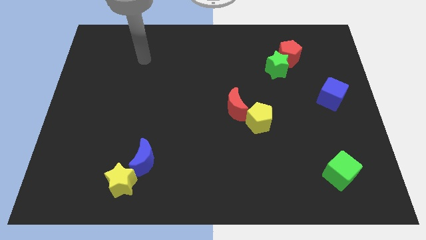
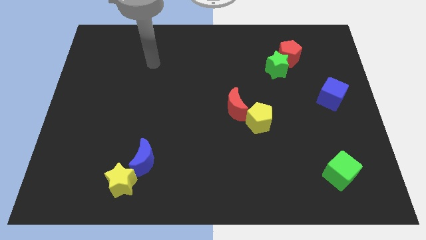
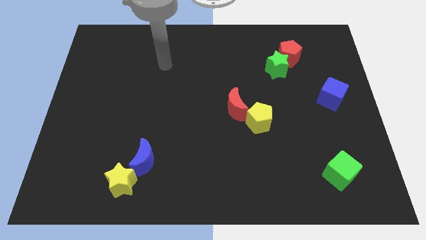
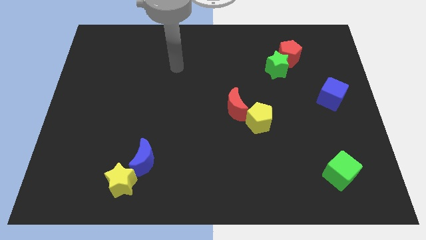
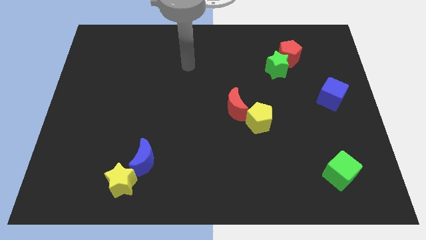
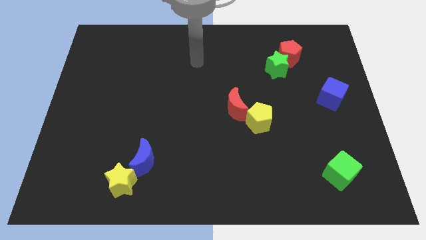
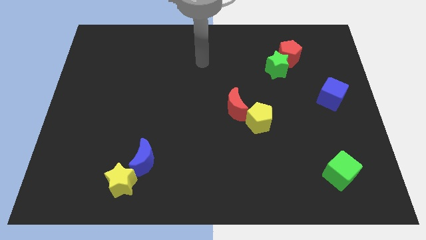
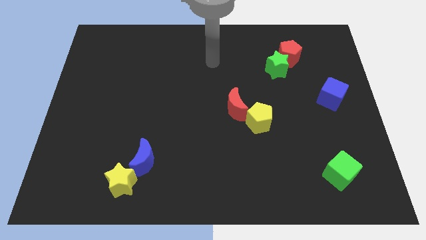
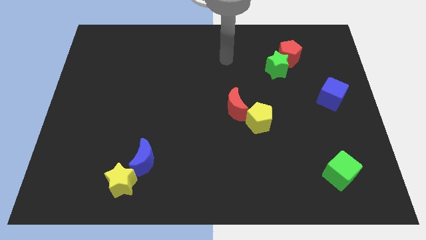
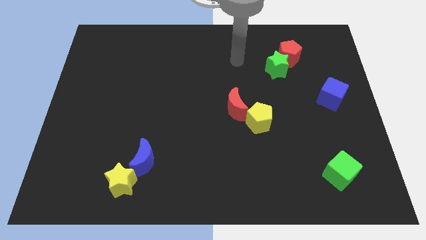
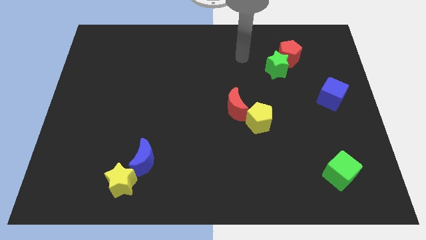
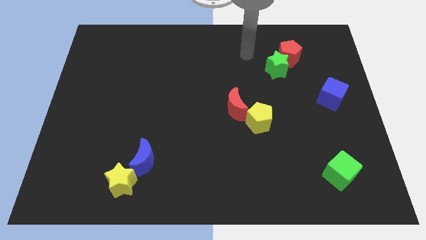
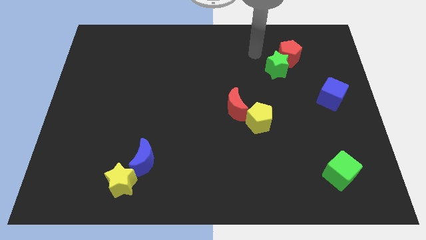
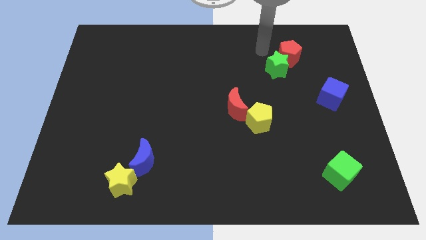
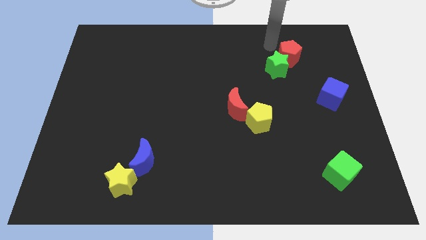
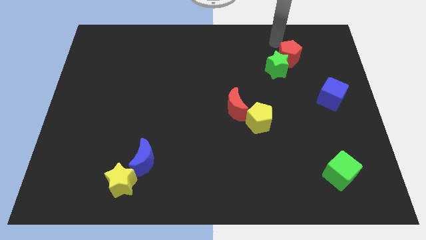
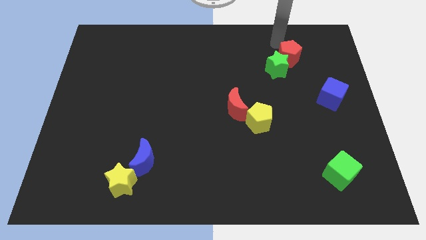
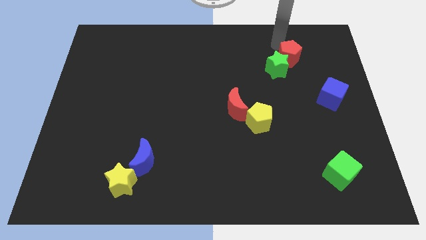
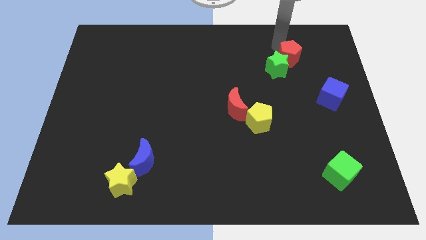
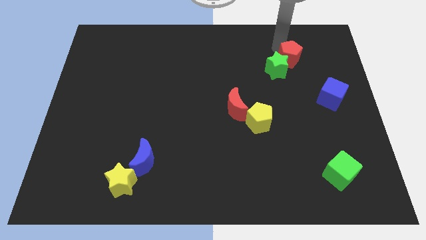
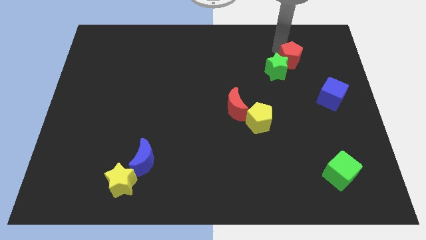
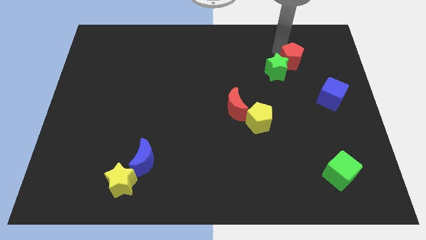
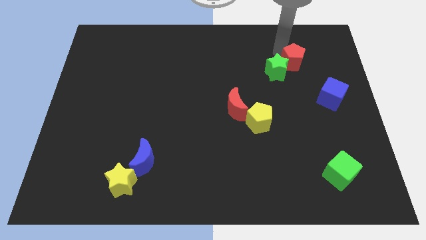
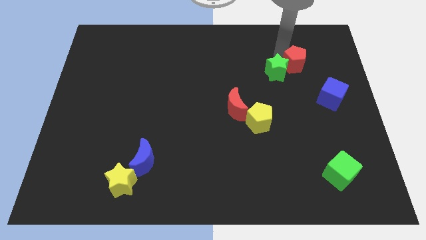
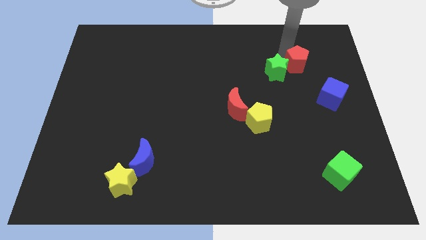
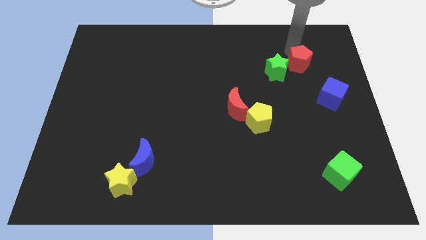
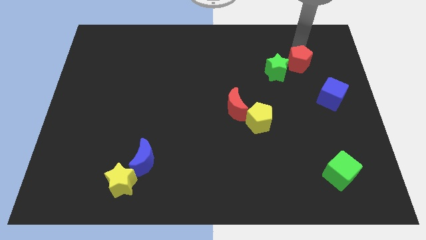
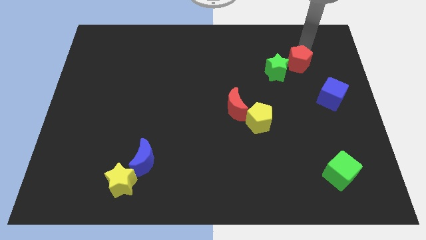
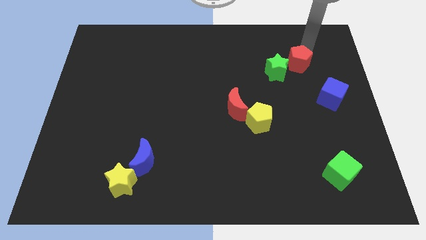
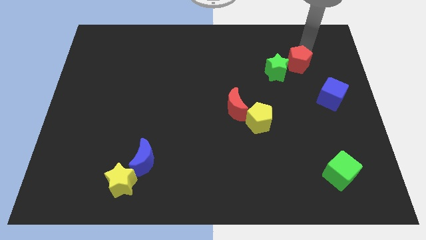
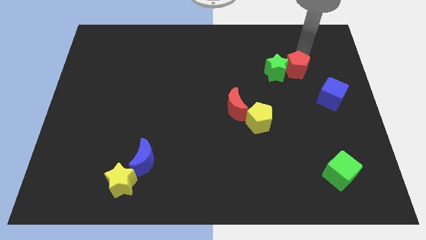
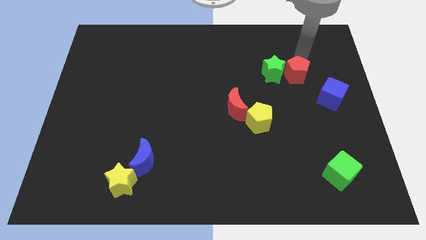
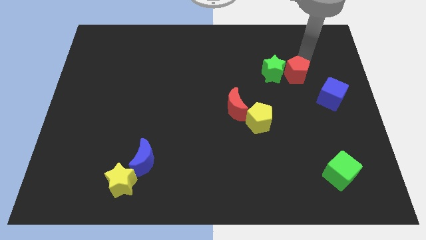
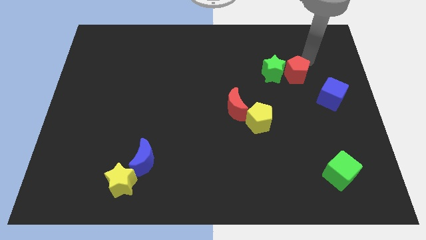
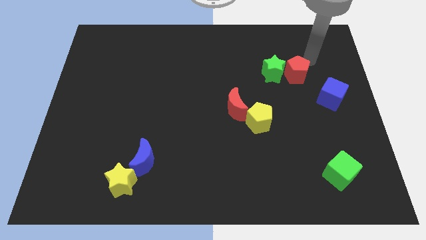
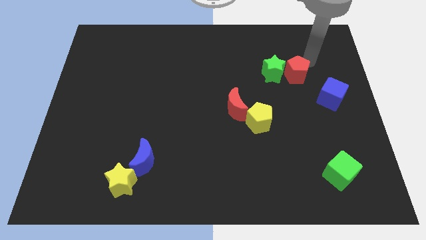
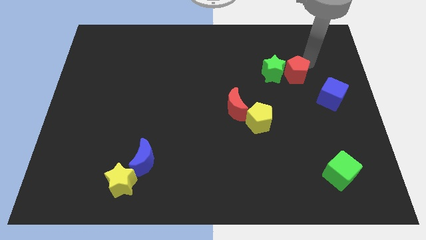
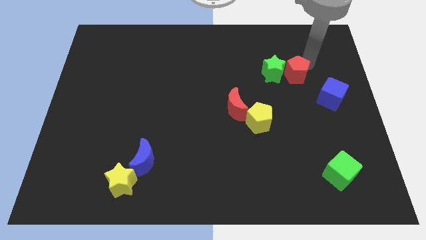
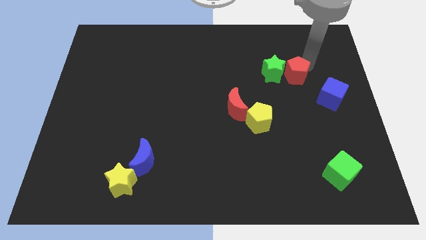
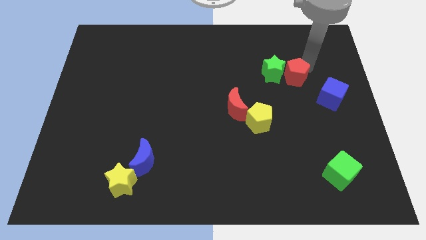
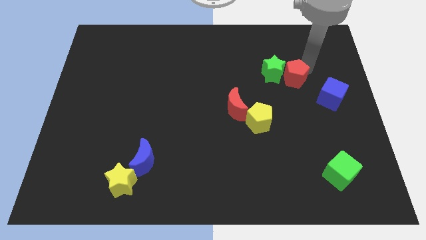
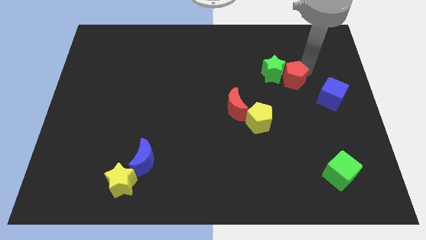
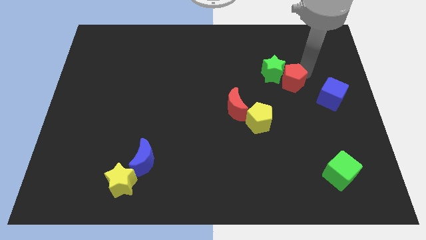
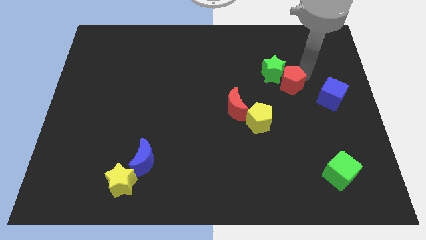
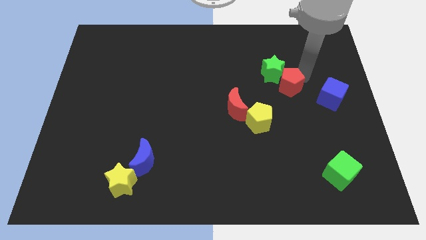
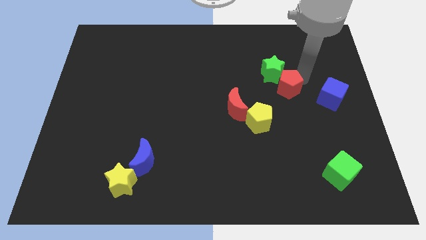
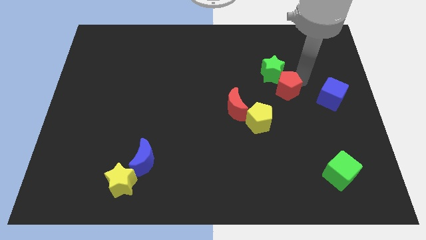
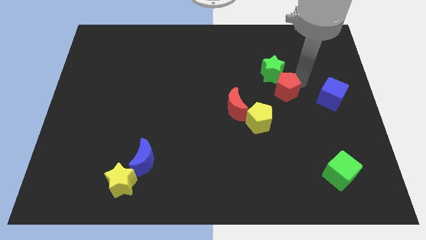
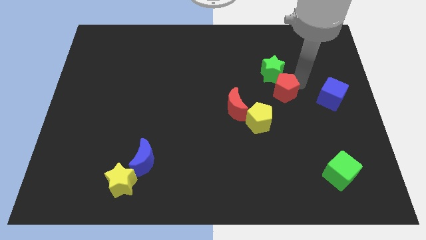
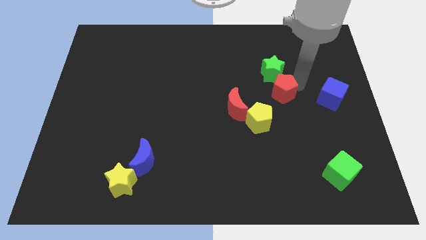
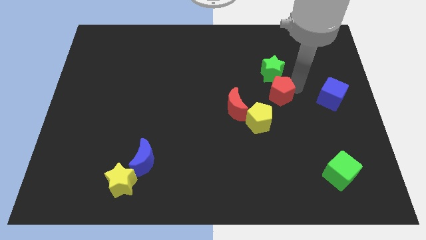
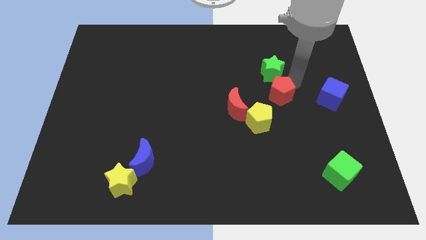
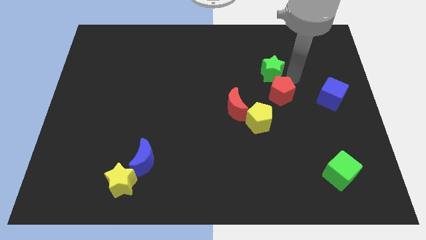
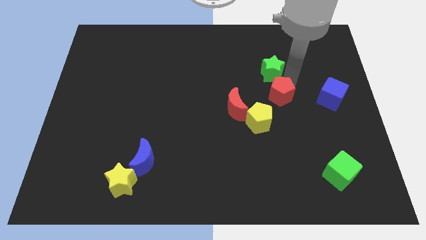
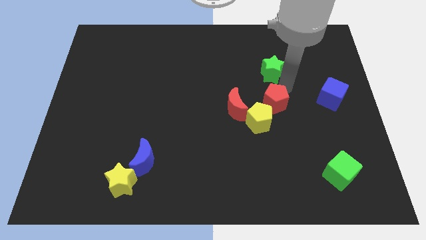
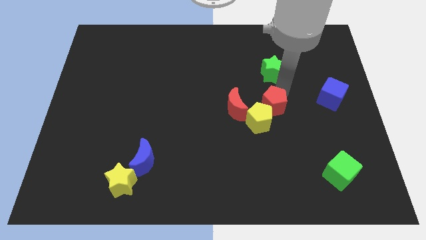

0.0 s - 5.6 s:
put the red pentagon close to the yellow pentagon

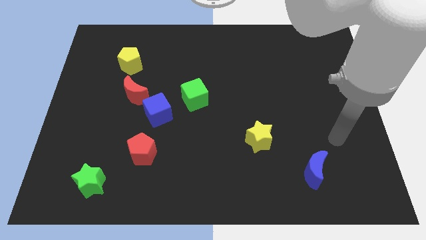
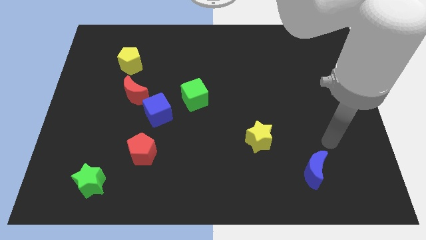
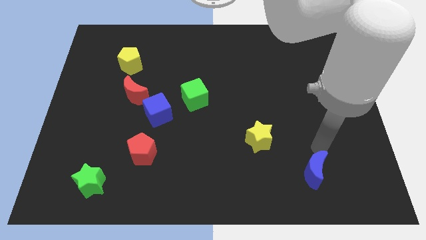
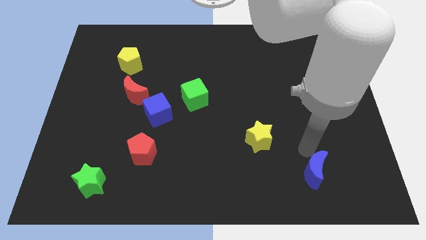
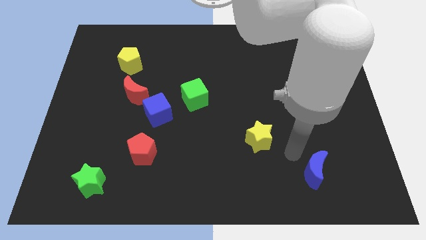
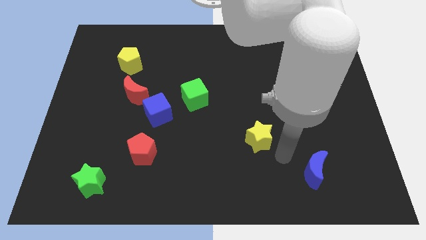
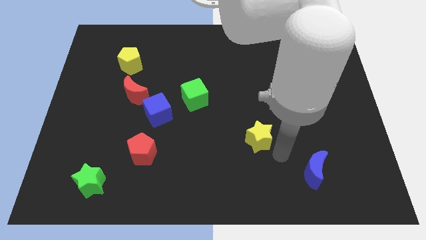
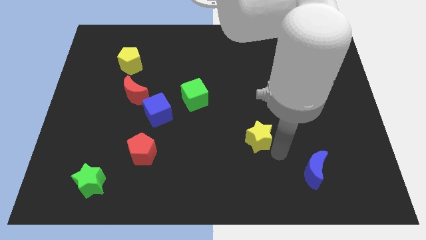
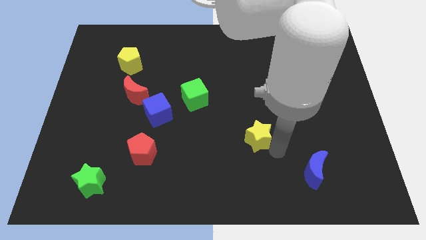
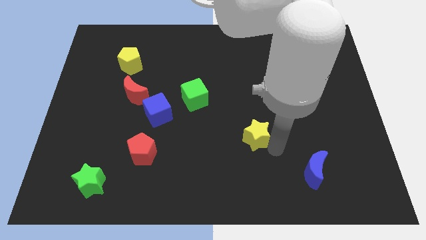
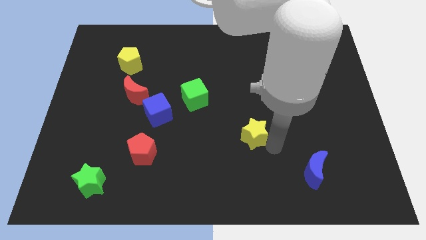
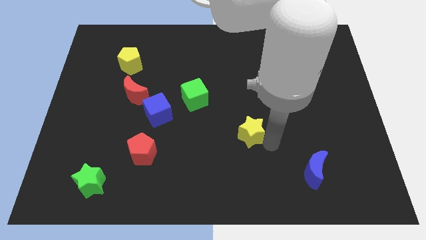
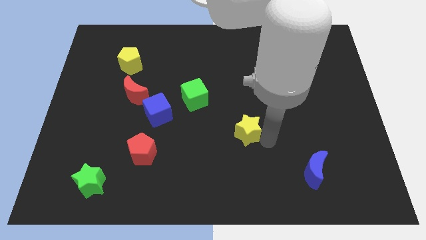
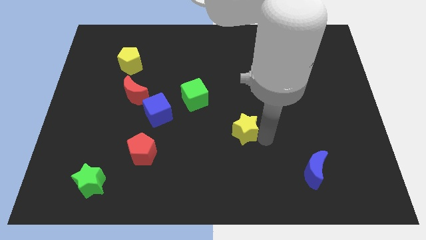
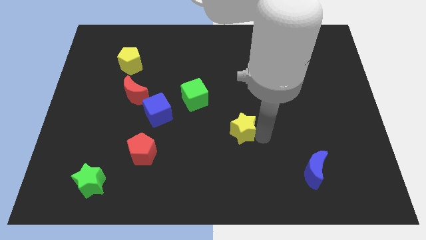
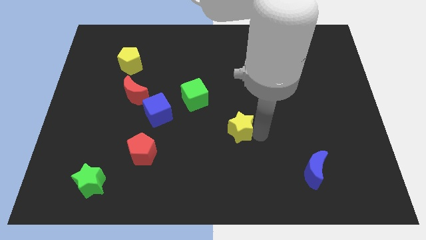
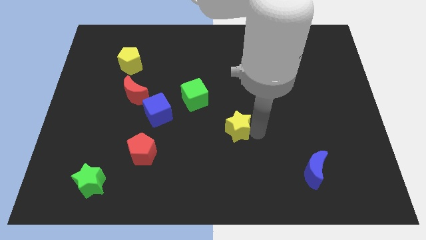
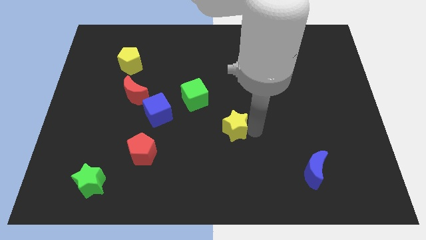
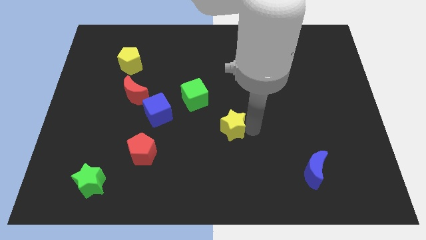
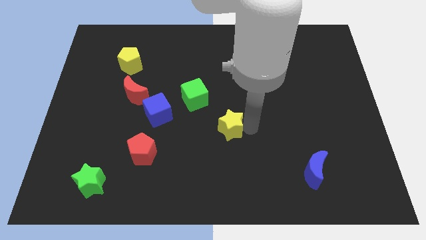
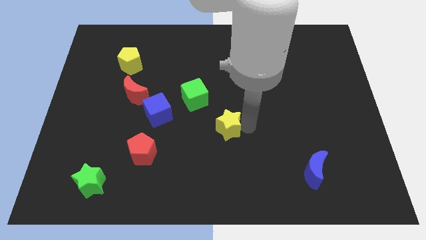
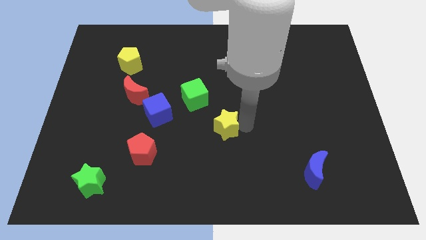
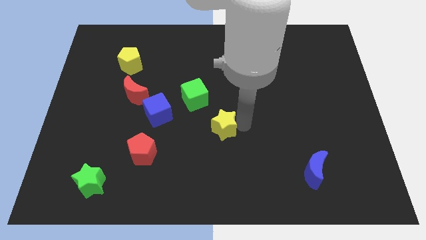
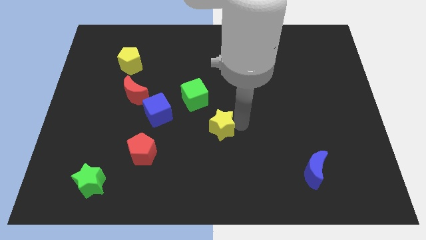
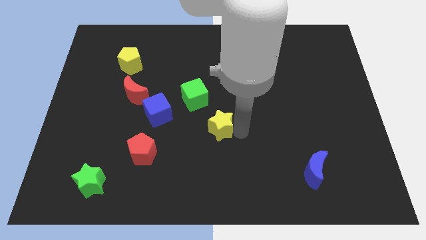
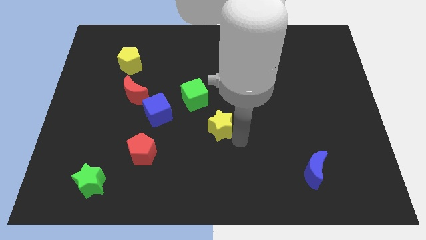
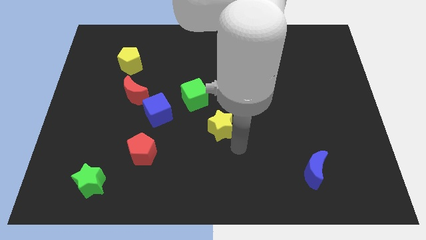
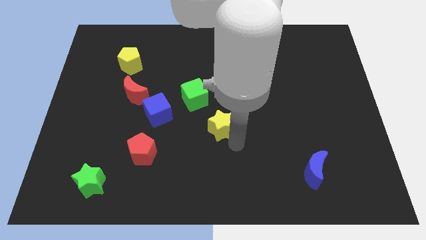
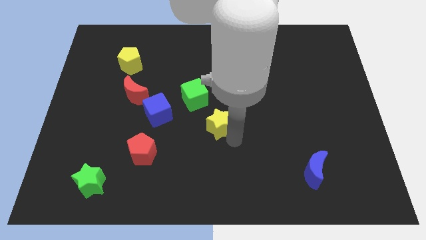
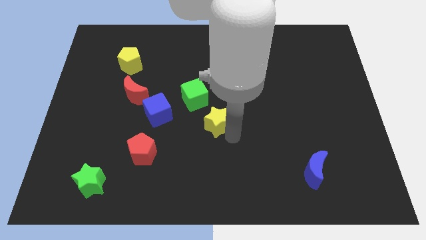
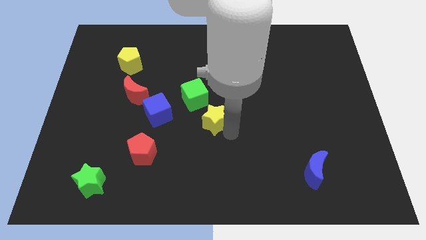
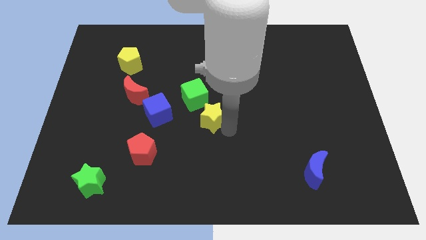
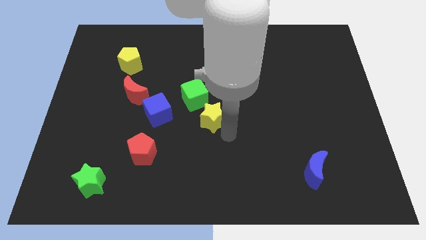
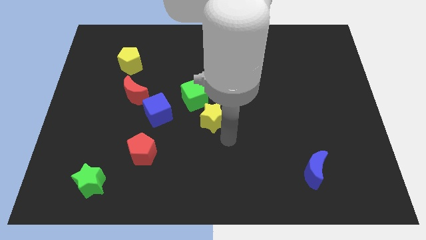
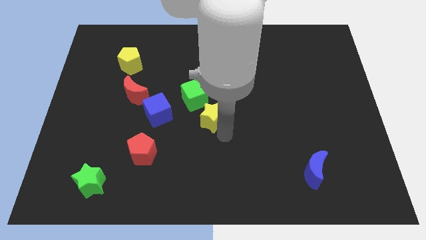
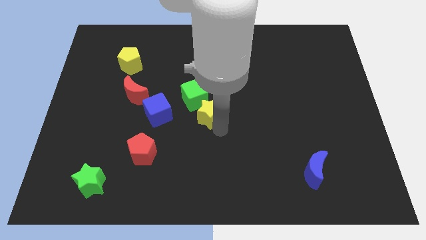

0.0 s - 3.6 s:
slide the yellow star next to the green cube
